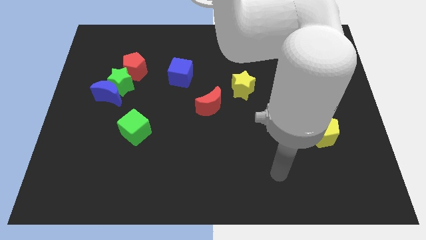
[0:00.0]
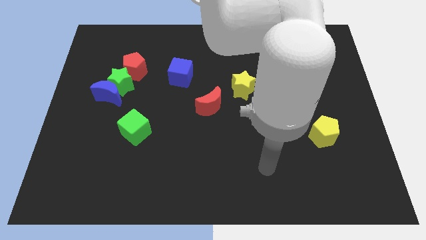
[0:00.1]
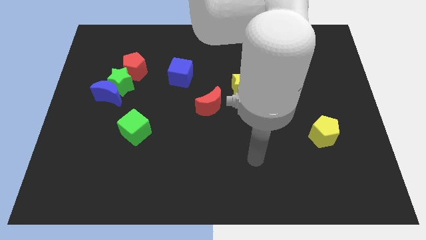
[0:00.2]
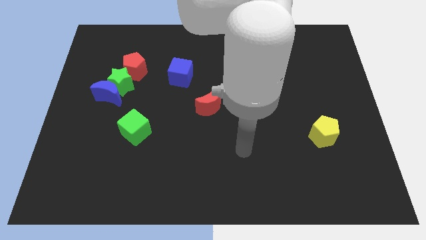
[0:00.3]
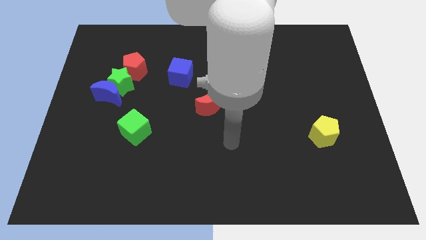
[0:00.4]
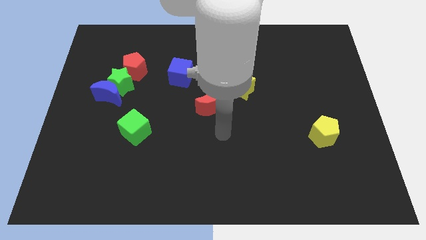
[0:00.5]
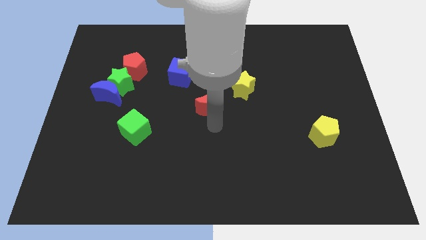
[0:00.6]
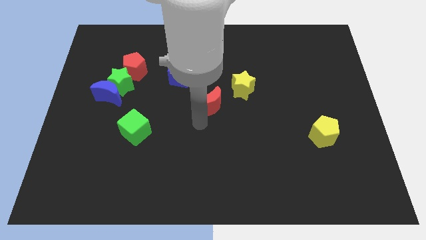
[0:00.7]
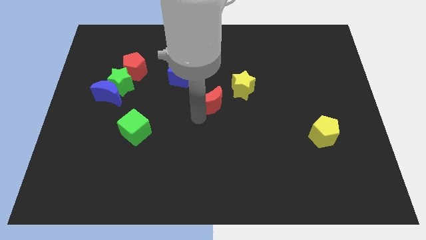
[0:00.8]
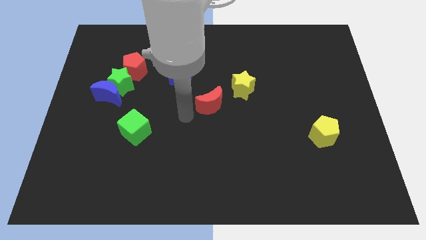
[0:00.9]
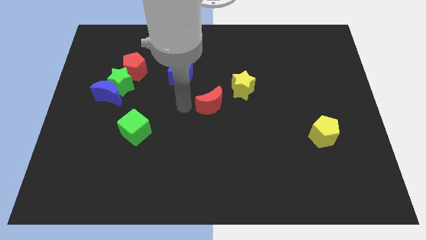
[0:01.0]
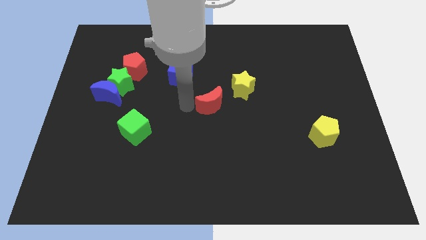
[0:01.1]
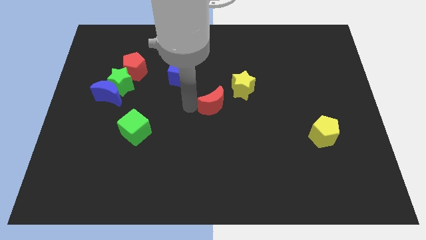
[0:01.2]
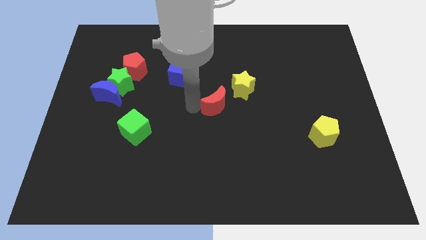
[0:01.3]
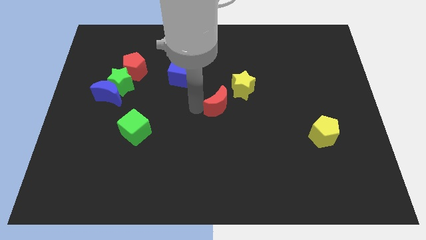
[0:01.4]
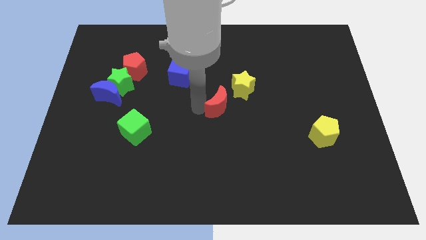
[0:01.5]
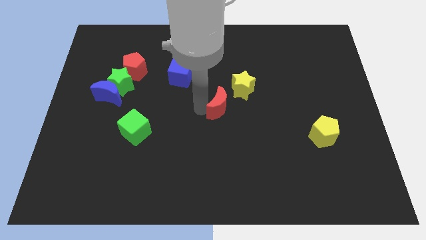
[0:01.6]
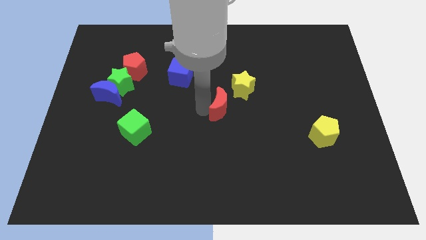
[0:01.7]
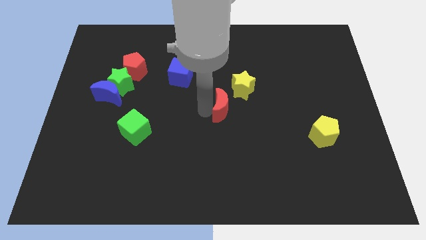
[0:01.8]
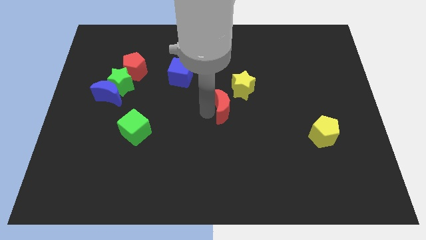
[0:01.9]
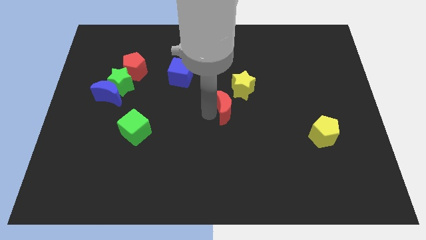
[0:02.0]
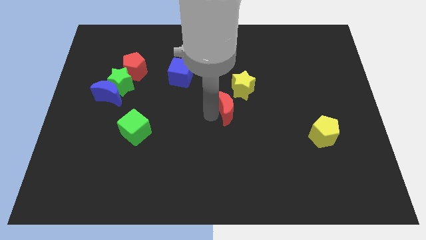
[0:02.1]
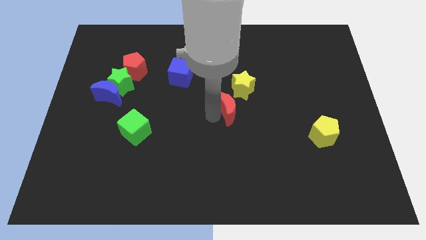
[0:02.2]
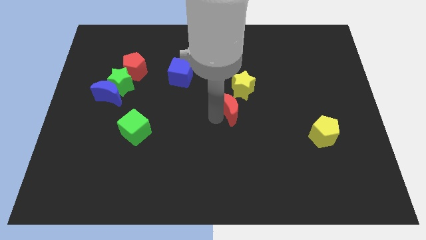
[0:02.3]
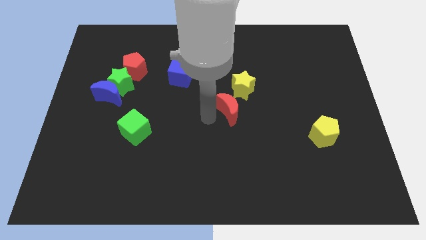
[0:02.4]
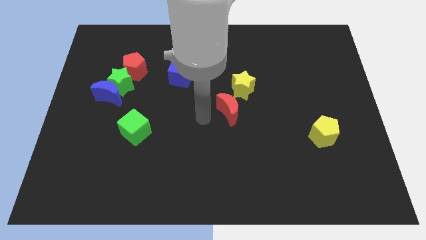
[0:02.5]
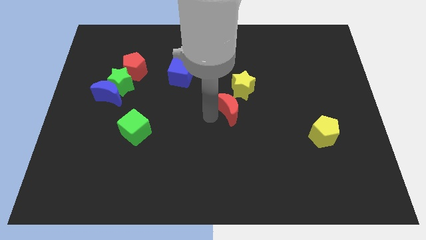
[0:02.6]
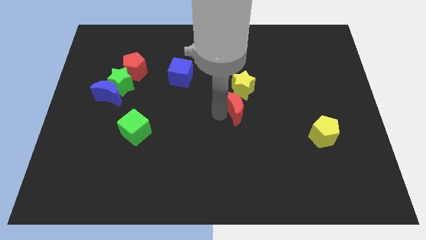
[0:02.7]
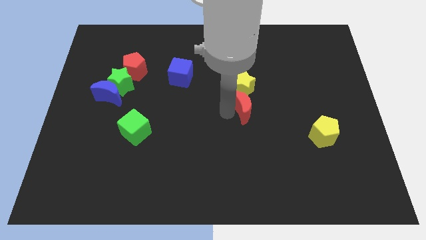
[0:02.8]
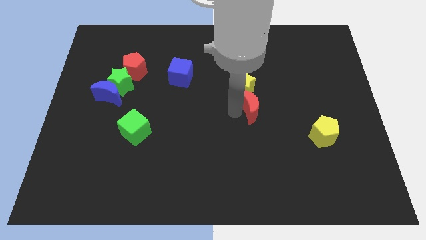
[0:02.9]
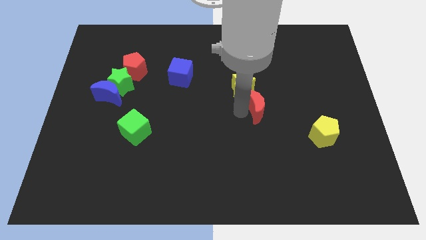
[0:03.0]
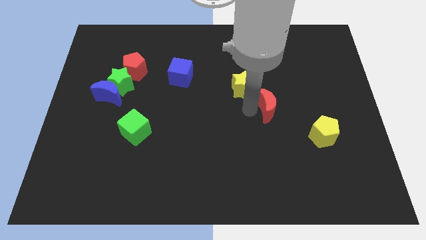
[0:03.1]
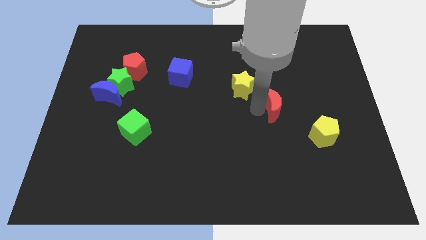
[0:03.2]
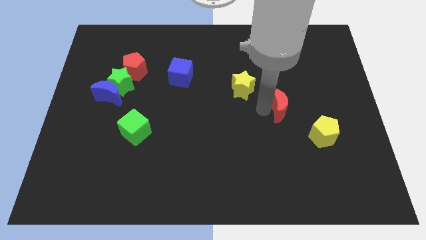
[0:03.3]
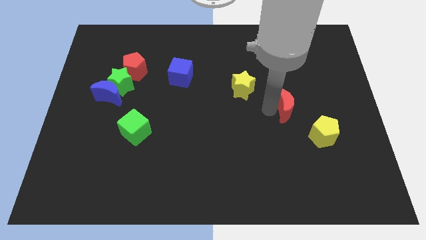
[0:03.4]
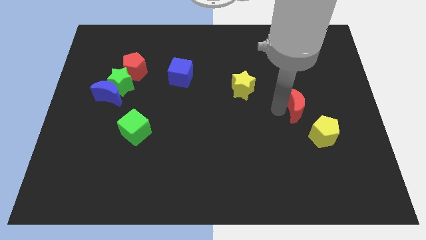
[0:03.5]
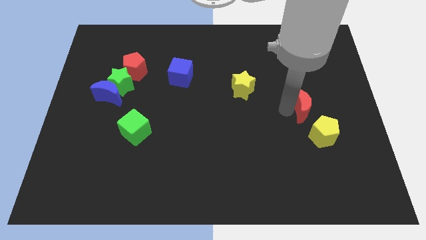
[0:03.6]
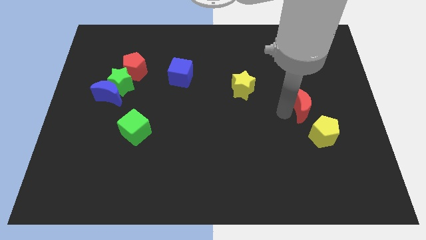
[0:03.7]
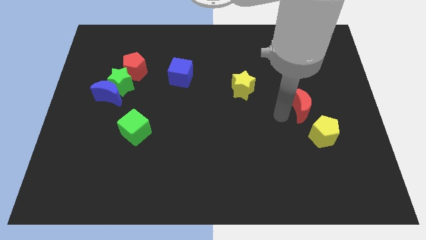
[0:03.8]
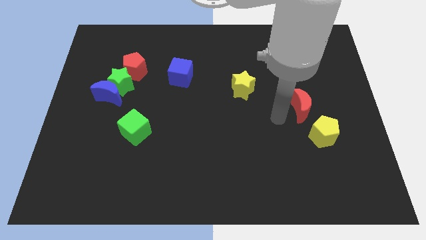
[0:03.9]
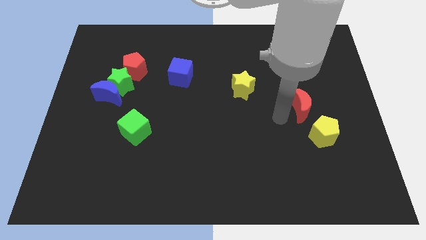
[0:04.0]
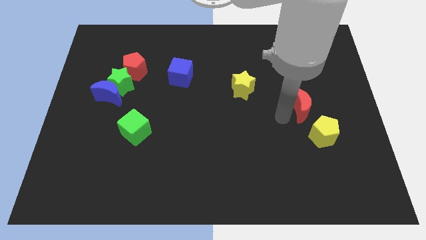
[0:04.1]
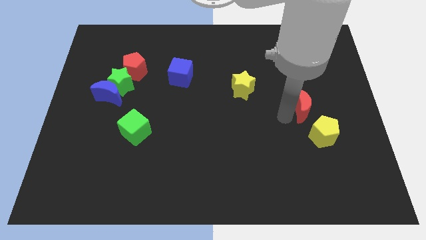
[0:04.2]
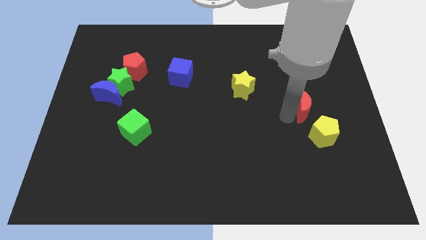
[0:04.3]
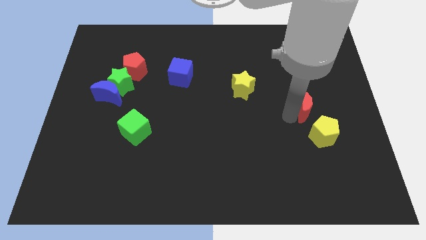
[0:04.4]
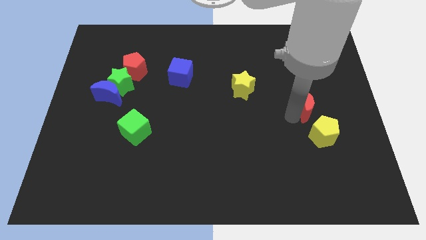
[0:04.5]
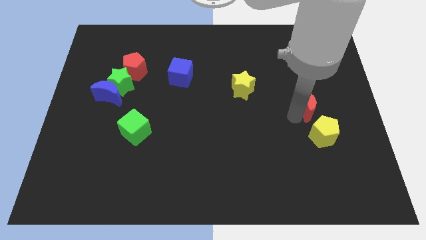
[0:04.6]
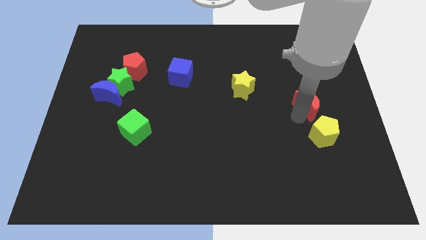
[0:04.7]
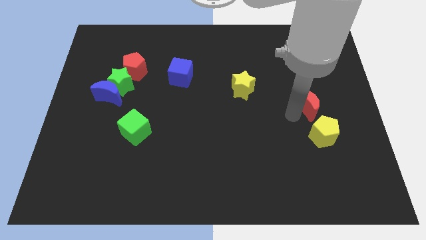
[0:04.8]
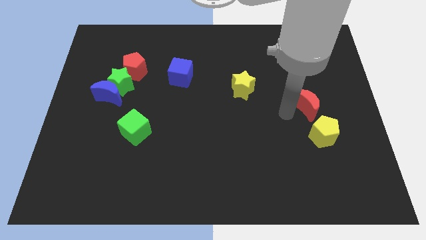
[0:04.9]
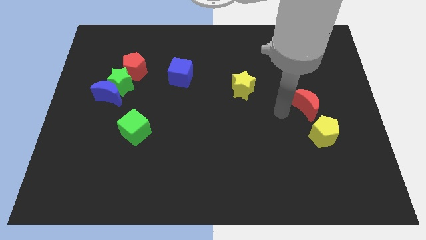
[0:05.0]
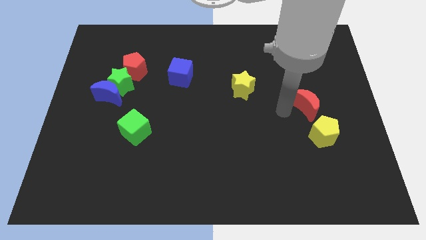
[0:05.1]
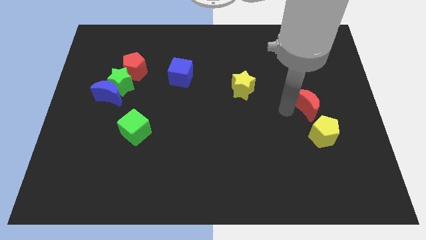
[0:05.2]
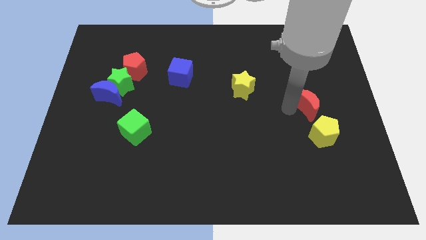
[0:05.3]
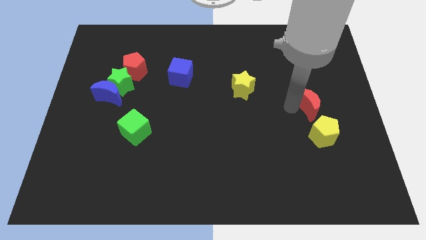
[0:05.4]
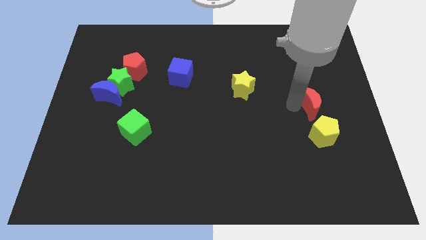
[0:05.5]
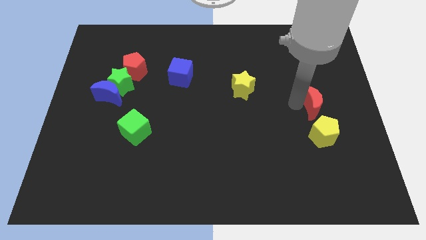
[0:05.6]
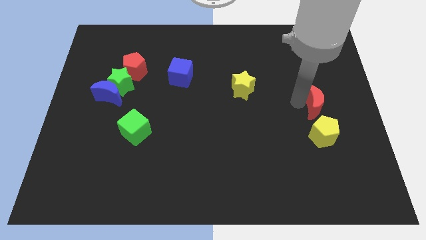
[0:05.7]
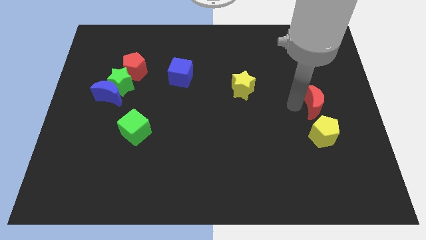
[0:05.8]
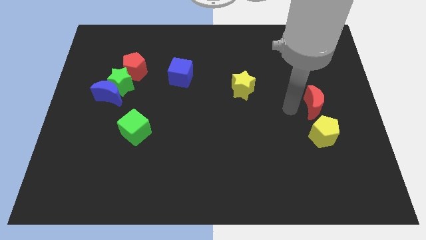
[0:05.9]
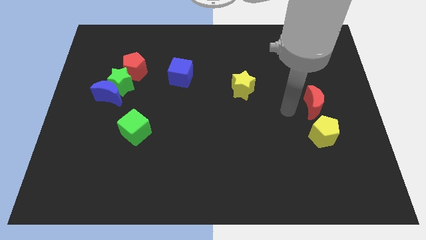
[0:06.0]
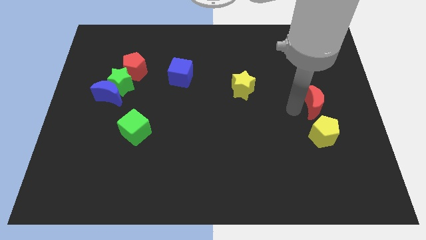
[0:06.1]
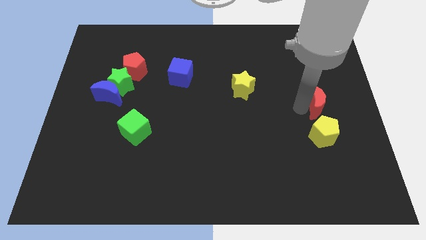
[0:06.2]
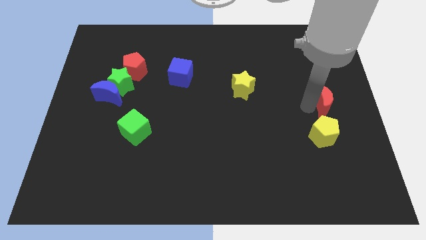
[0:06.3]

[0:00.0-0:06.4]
put the red moon to the center right
